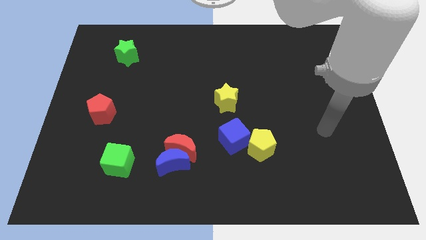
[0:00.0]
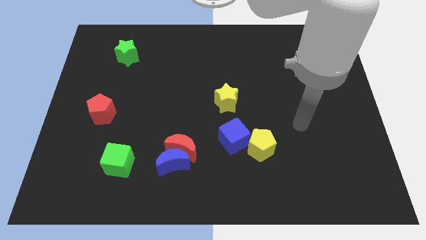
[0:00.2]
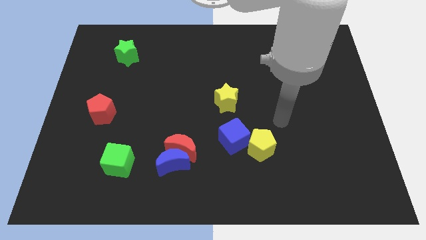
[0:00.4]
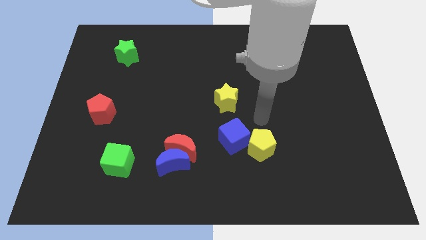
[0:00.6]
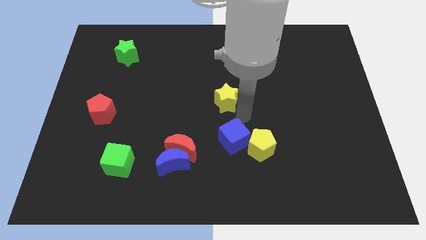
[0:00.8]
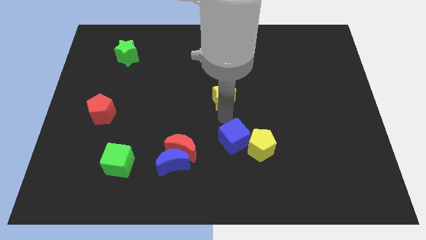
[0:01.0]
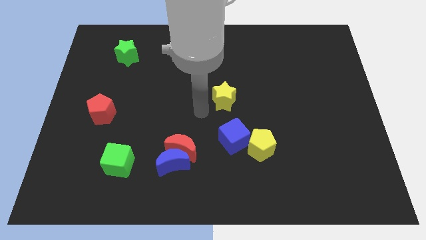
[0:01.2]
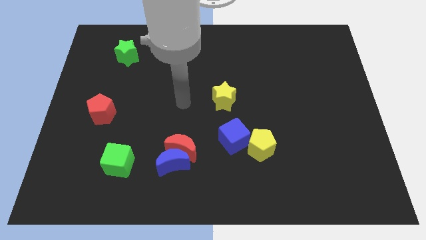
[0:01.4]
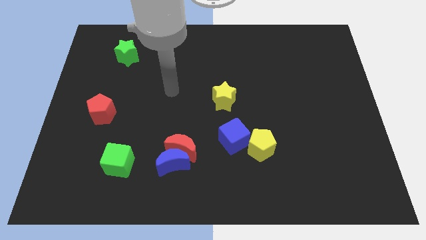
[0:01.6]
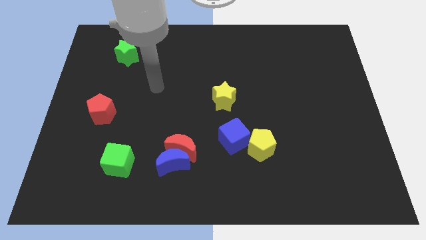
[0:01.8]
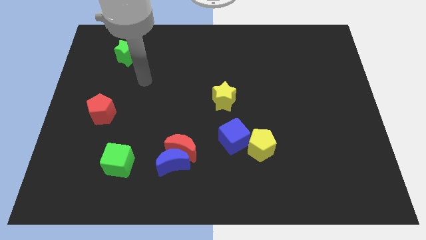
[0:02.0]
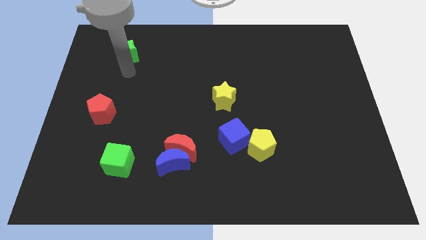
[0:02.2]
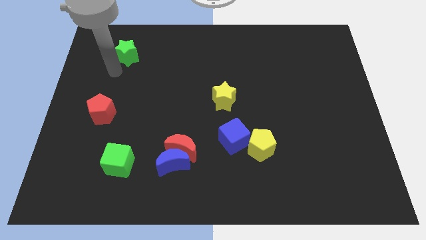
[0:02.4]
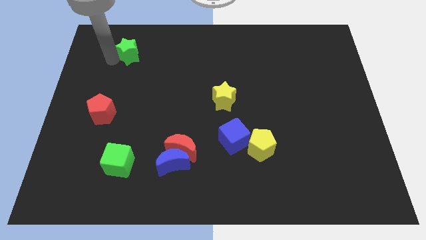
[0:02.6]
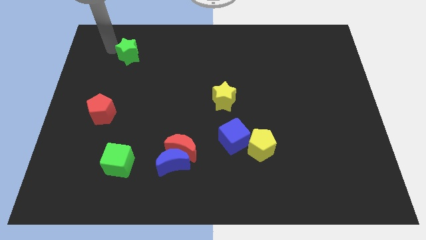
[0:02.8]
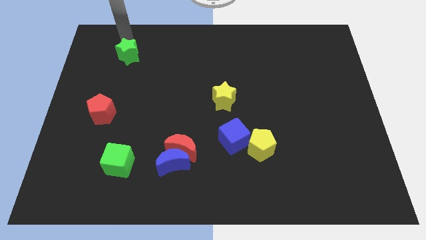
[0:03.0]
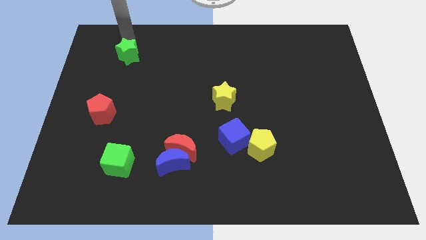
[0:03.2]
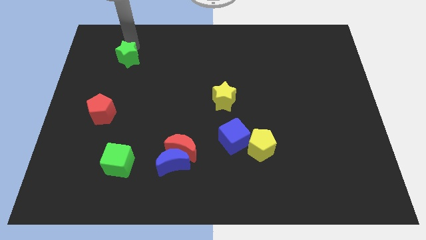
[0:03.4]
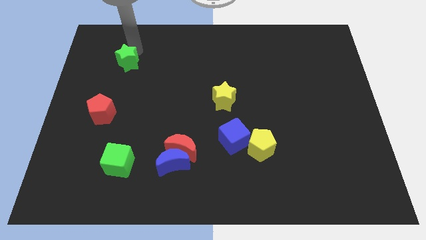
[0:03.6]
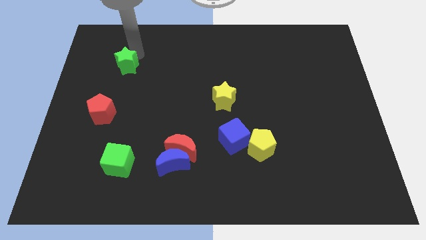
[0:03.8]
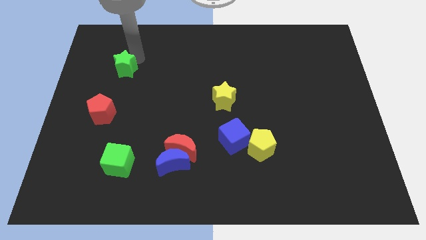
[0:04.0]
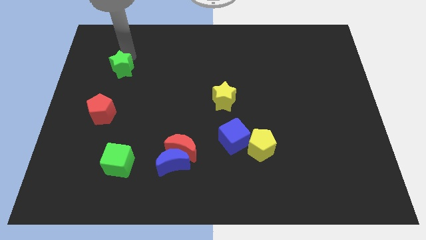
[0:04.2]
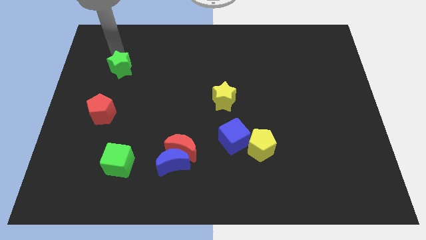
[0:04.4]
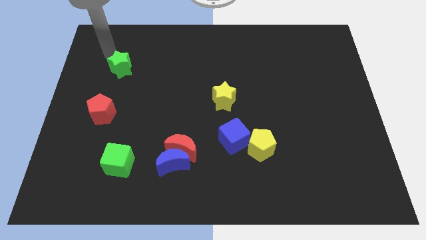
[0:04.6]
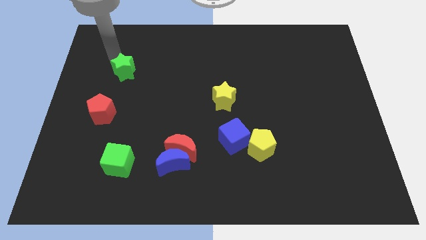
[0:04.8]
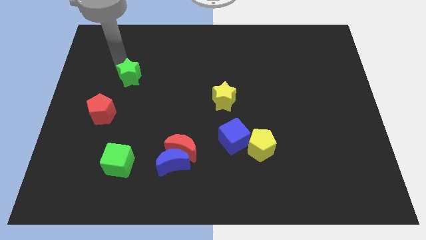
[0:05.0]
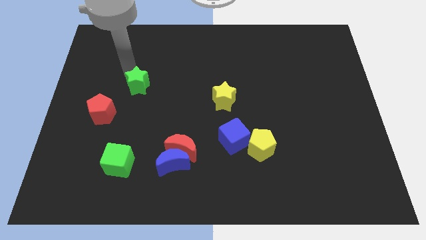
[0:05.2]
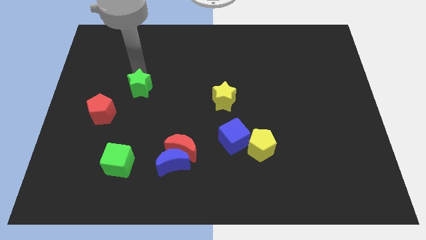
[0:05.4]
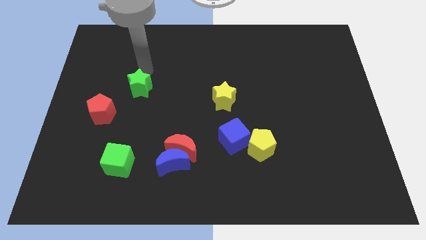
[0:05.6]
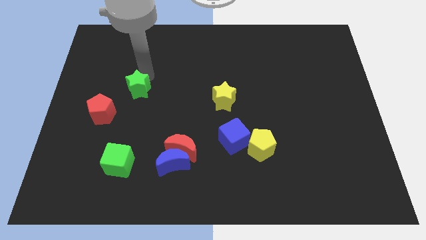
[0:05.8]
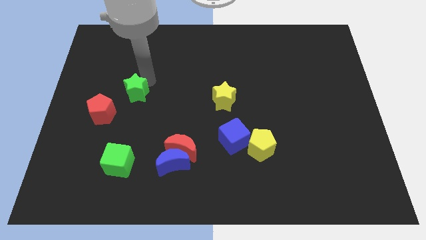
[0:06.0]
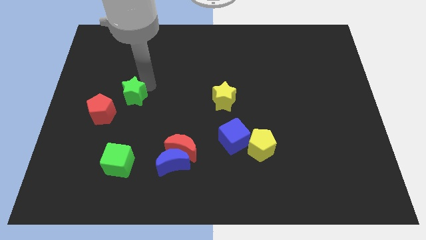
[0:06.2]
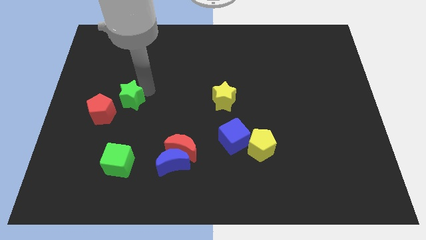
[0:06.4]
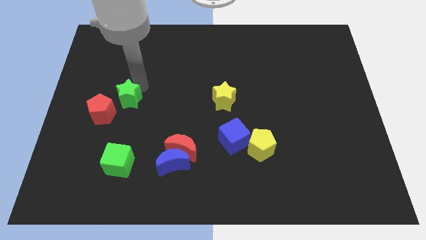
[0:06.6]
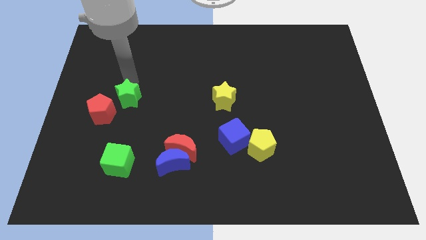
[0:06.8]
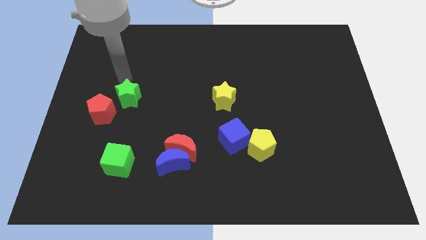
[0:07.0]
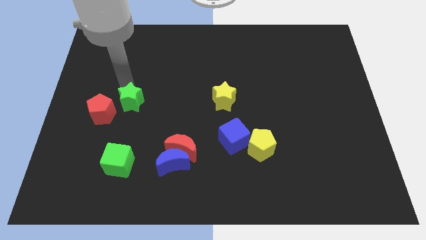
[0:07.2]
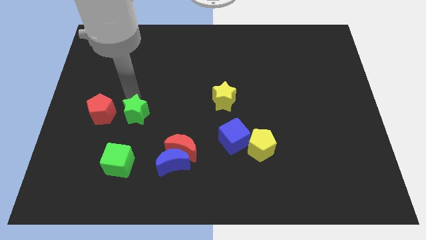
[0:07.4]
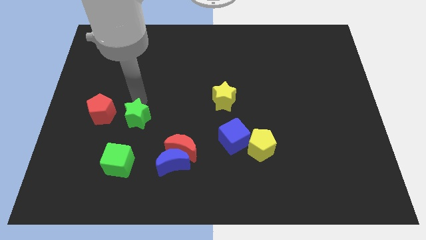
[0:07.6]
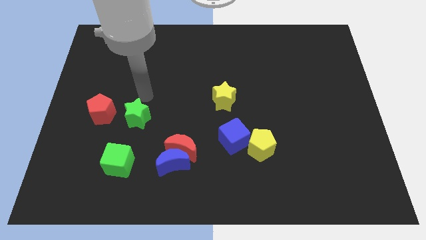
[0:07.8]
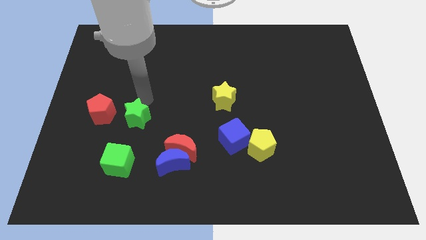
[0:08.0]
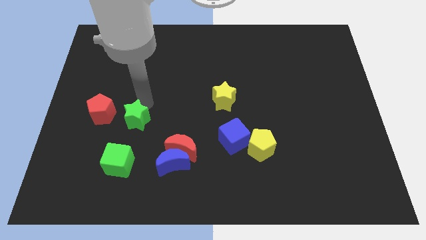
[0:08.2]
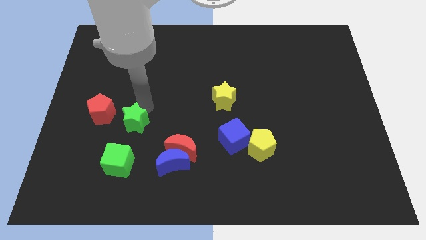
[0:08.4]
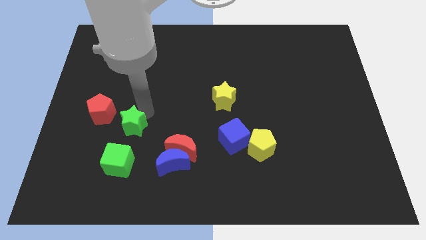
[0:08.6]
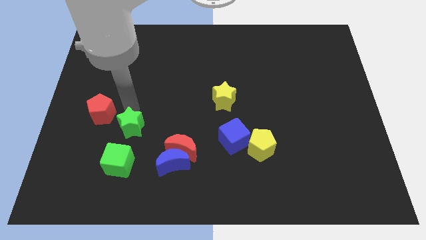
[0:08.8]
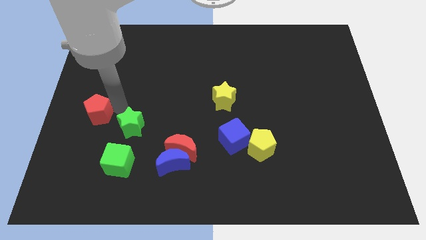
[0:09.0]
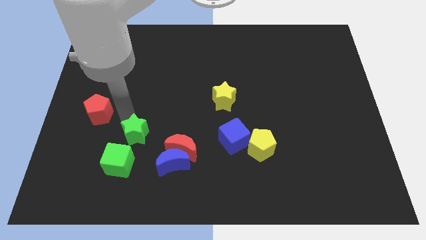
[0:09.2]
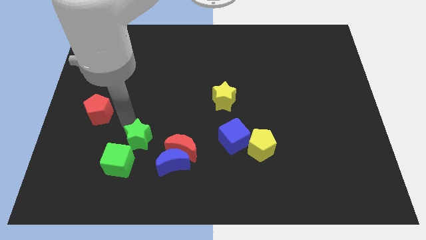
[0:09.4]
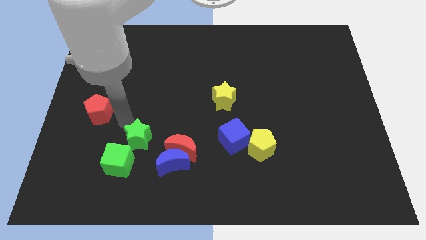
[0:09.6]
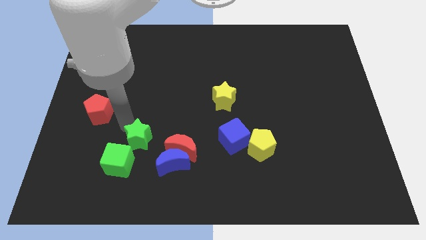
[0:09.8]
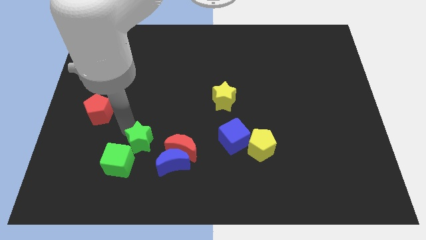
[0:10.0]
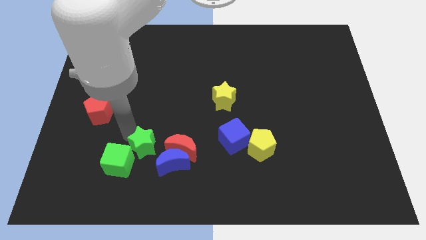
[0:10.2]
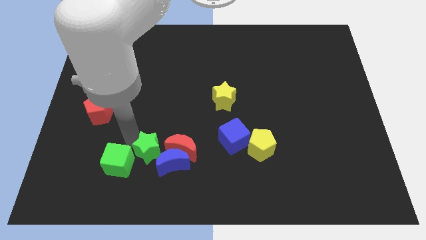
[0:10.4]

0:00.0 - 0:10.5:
push the green star close to the blue moon

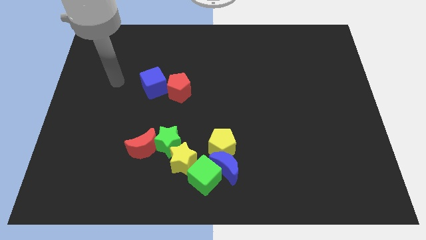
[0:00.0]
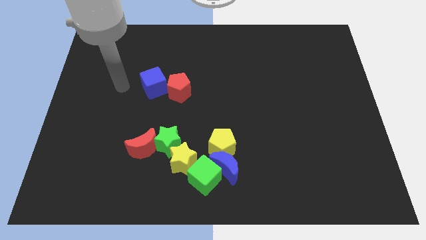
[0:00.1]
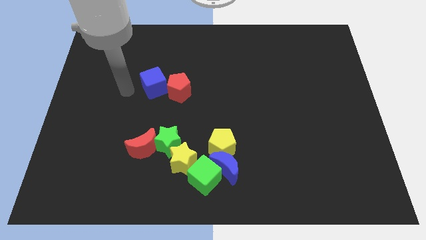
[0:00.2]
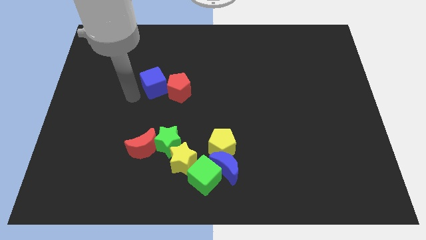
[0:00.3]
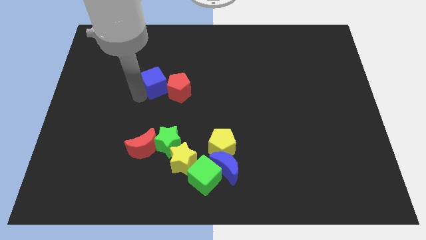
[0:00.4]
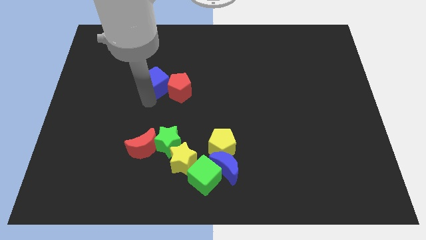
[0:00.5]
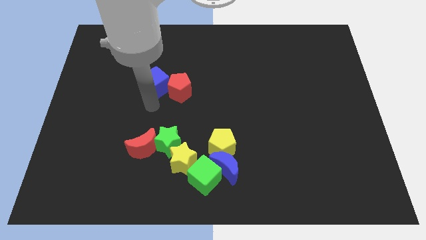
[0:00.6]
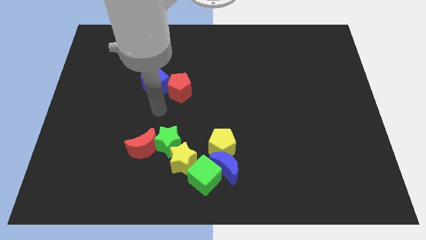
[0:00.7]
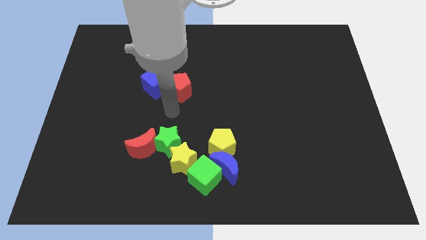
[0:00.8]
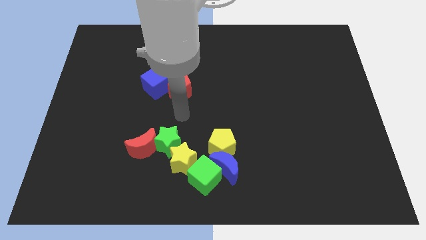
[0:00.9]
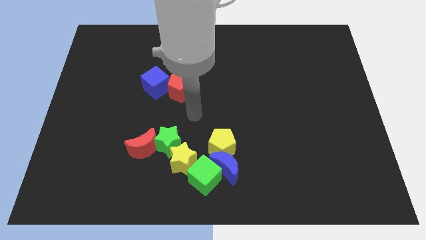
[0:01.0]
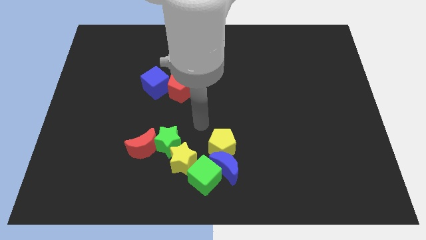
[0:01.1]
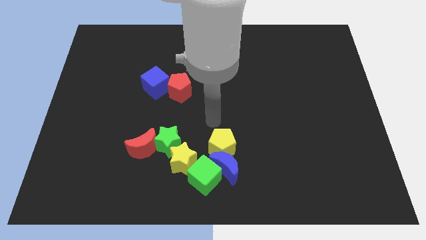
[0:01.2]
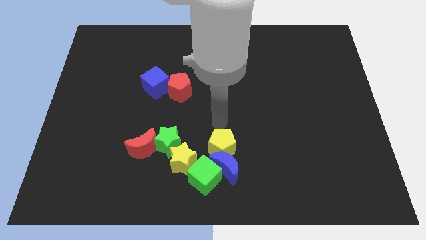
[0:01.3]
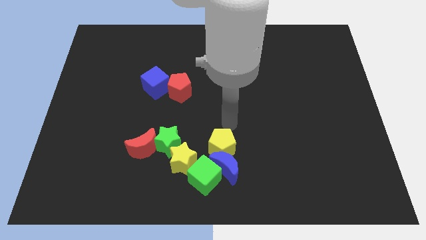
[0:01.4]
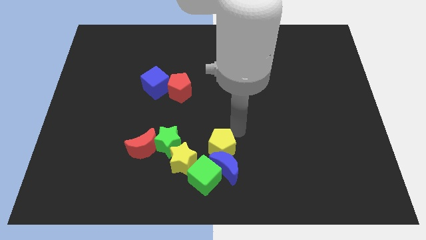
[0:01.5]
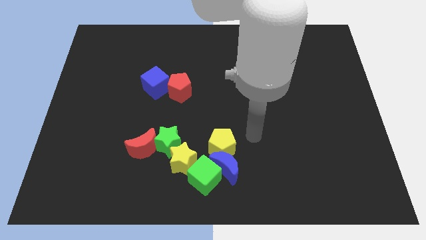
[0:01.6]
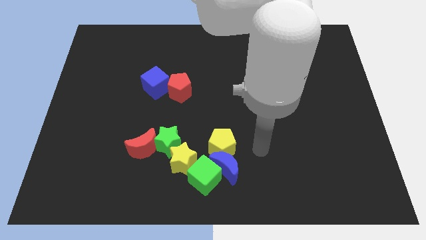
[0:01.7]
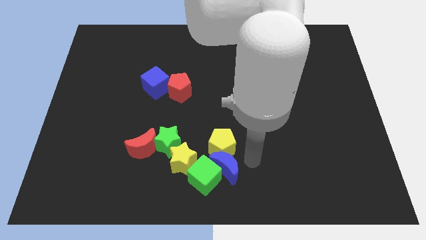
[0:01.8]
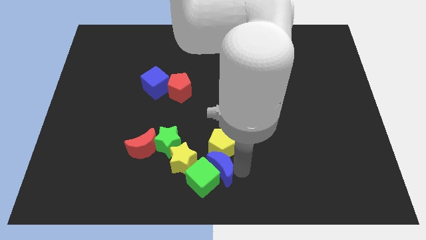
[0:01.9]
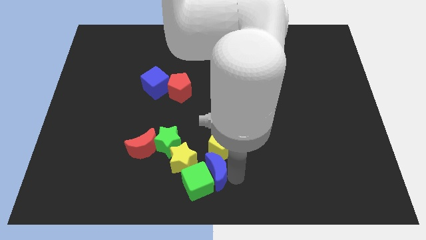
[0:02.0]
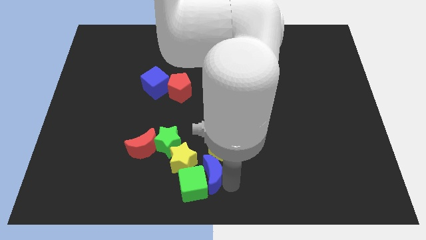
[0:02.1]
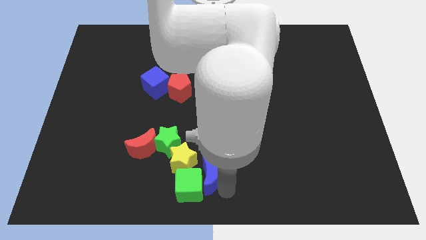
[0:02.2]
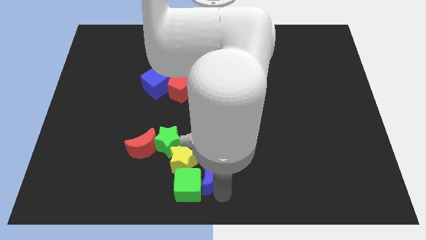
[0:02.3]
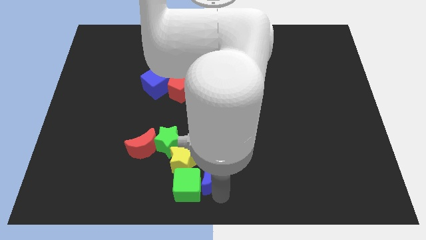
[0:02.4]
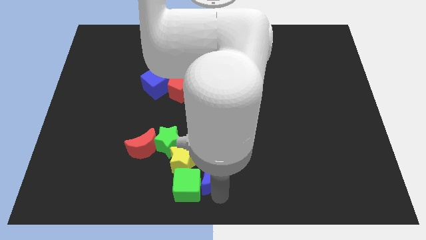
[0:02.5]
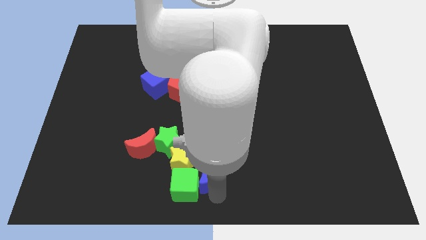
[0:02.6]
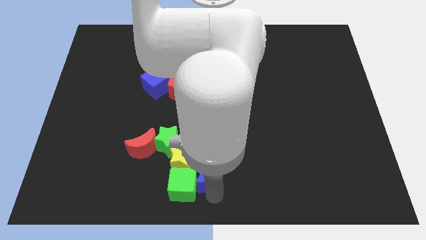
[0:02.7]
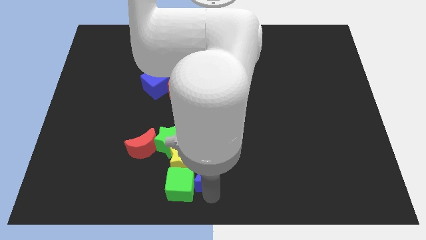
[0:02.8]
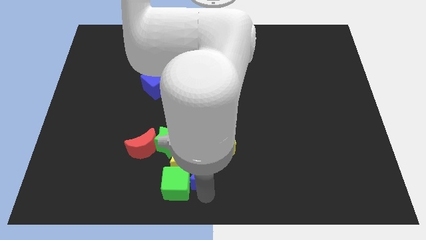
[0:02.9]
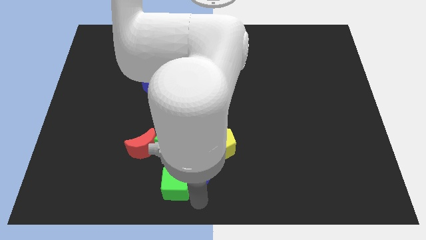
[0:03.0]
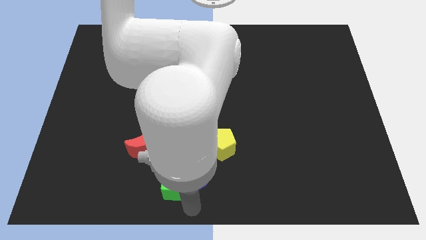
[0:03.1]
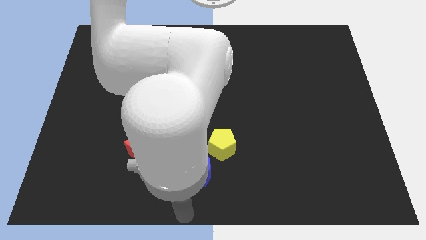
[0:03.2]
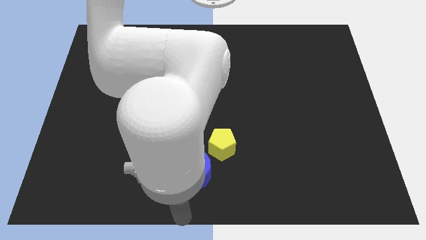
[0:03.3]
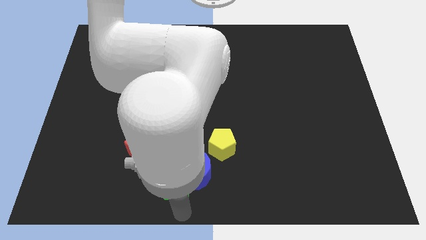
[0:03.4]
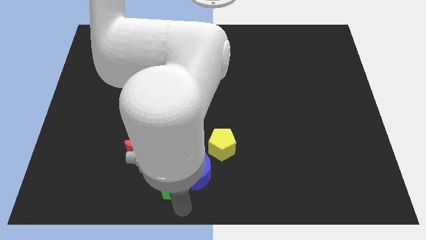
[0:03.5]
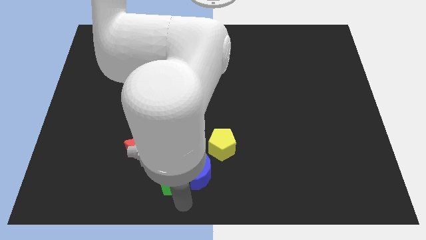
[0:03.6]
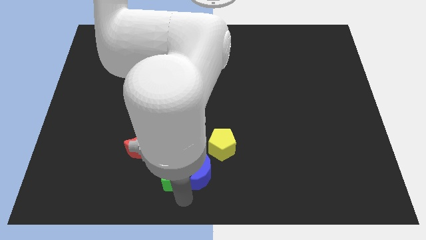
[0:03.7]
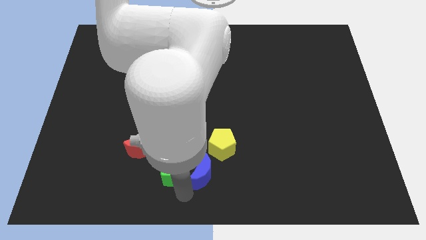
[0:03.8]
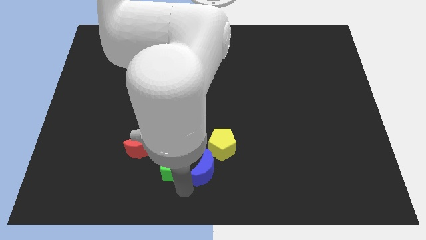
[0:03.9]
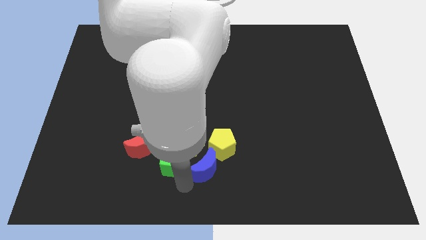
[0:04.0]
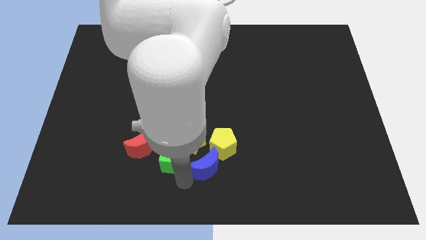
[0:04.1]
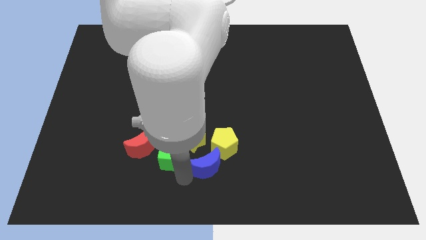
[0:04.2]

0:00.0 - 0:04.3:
move the green cube close to the green star
